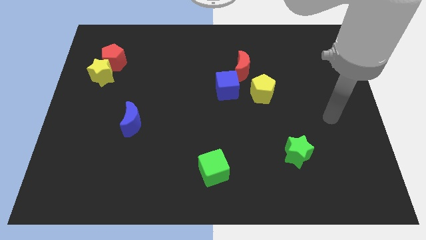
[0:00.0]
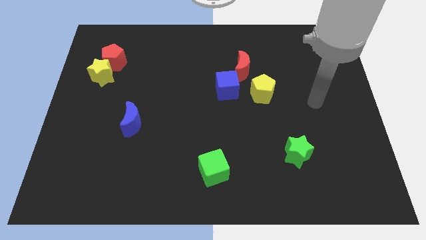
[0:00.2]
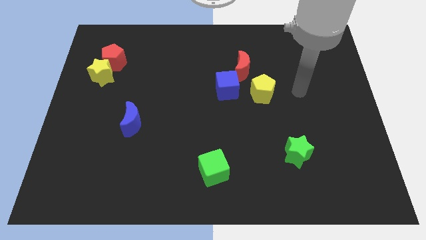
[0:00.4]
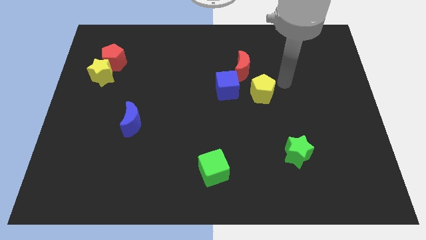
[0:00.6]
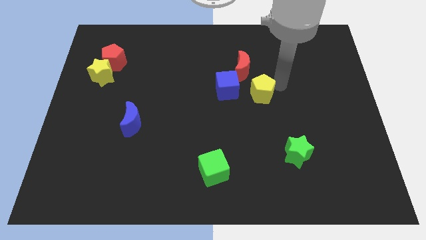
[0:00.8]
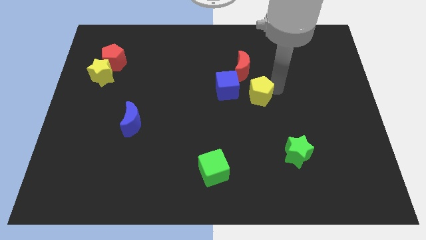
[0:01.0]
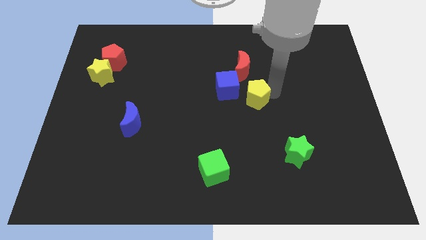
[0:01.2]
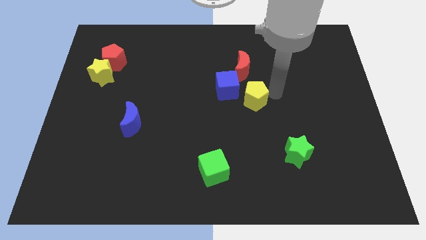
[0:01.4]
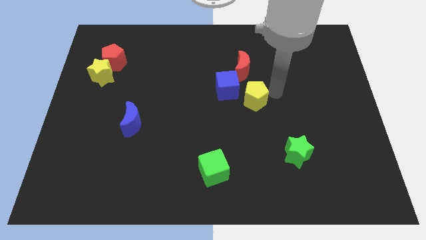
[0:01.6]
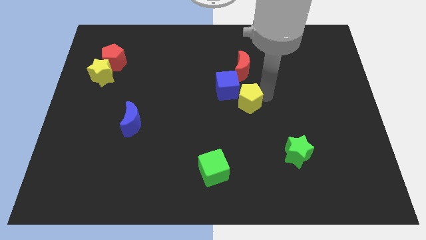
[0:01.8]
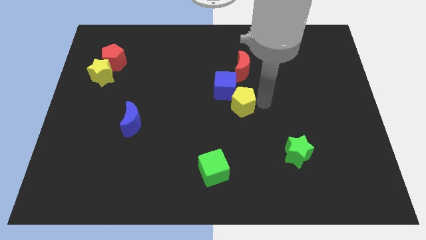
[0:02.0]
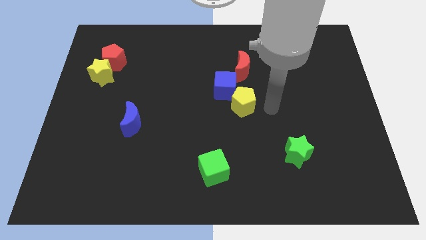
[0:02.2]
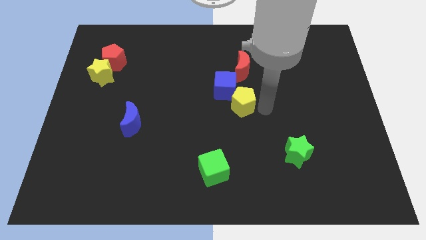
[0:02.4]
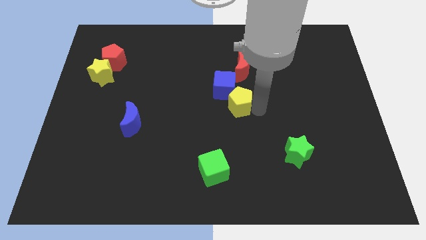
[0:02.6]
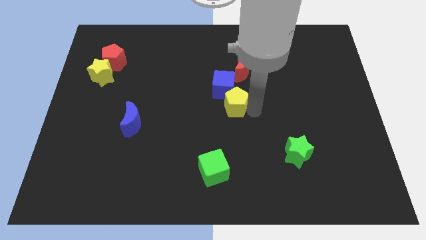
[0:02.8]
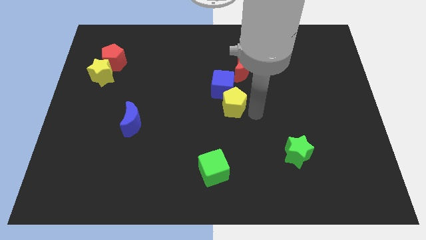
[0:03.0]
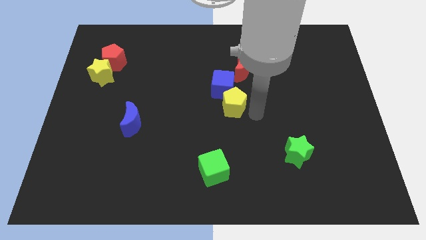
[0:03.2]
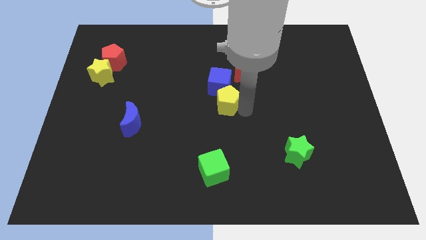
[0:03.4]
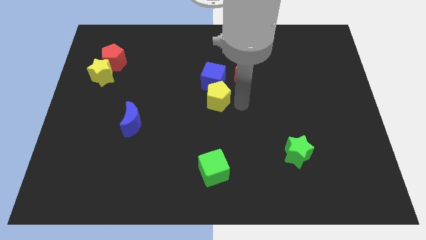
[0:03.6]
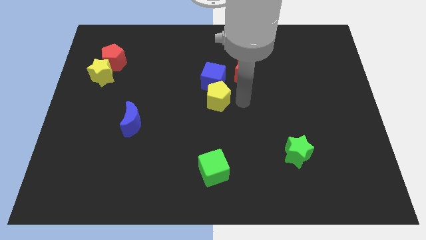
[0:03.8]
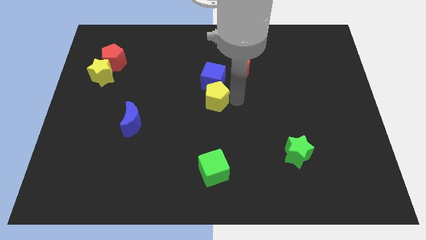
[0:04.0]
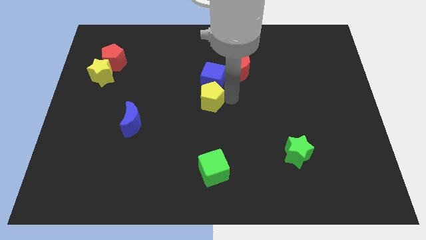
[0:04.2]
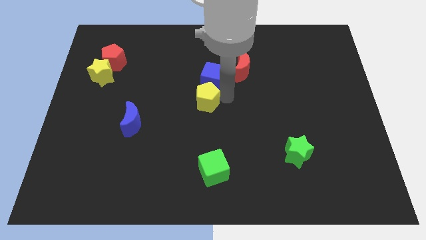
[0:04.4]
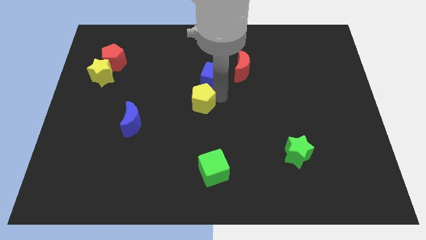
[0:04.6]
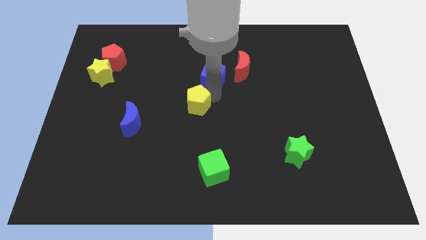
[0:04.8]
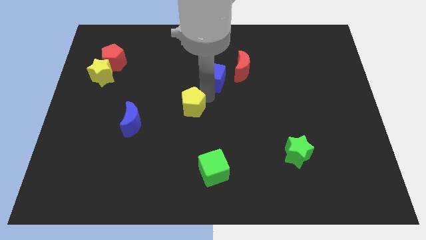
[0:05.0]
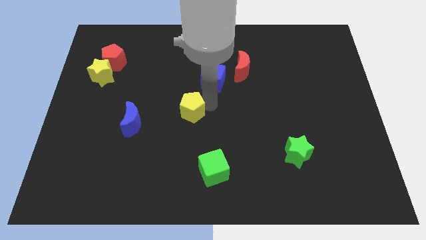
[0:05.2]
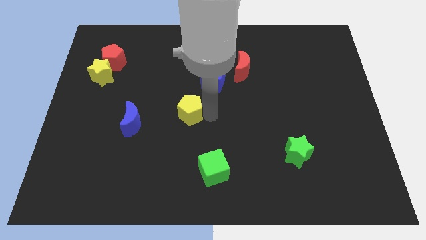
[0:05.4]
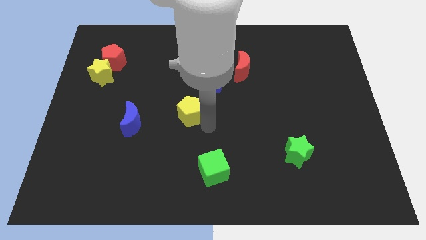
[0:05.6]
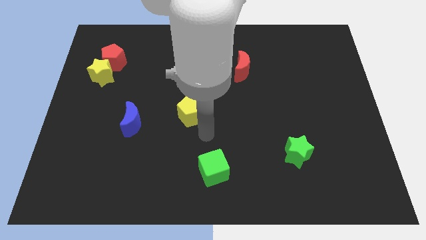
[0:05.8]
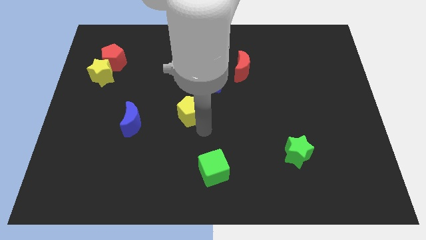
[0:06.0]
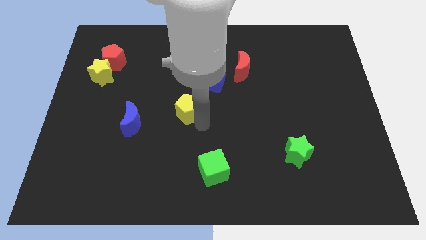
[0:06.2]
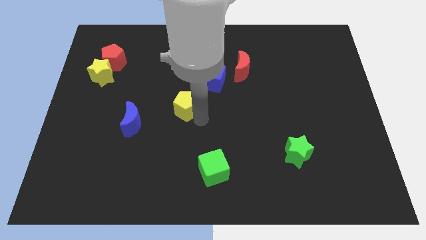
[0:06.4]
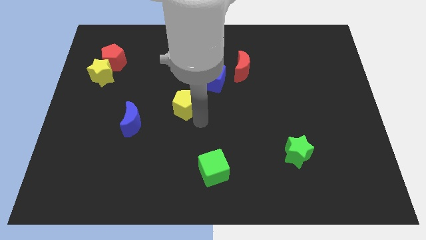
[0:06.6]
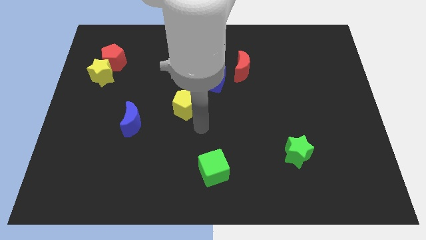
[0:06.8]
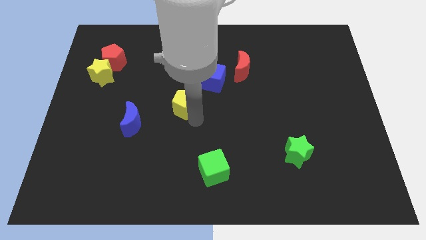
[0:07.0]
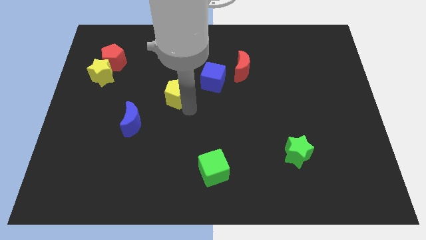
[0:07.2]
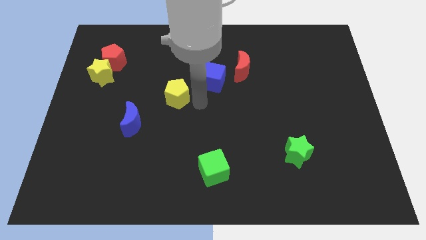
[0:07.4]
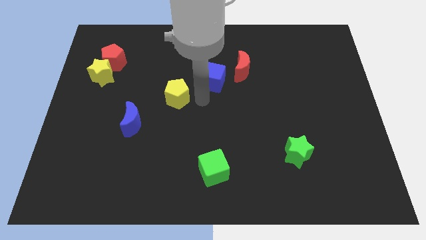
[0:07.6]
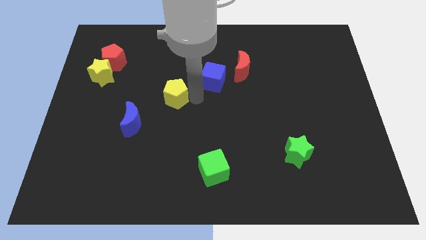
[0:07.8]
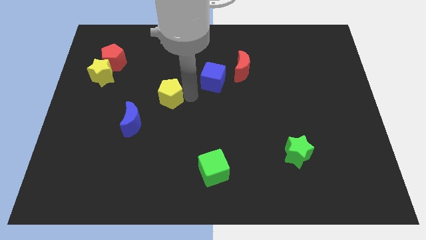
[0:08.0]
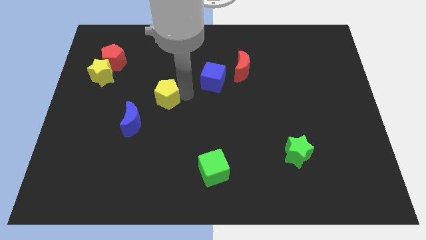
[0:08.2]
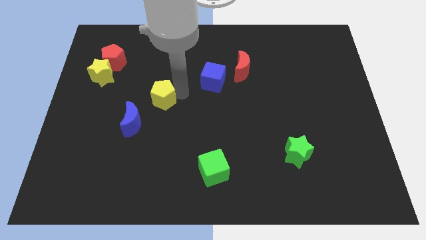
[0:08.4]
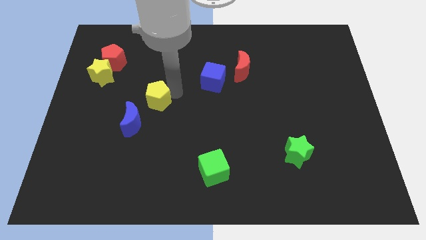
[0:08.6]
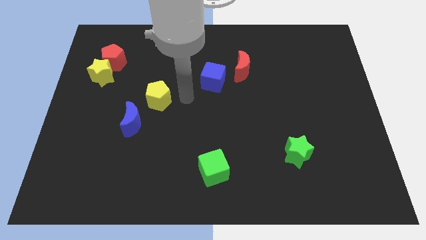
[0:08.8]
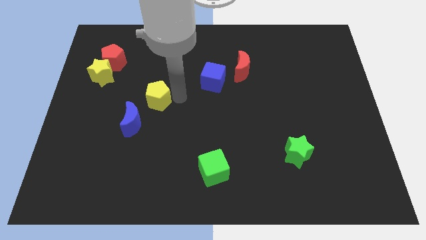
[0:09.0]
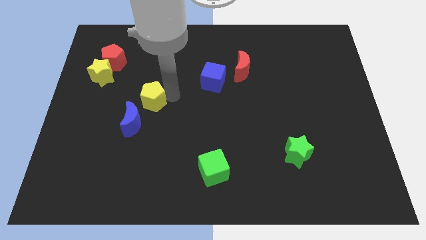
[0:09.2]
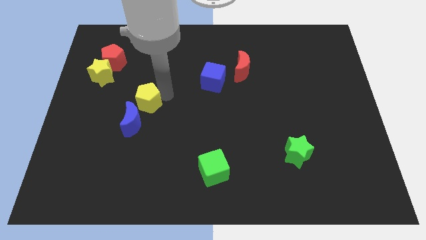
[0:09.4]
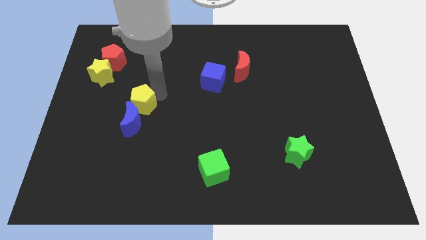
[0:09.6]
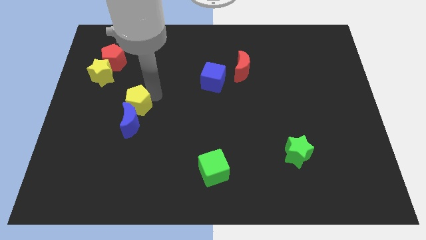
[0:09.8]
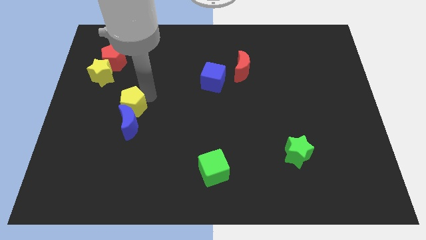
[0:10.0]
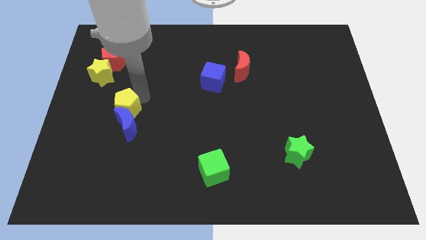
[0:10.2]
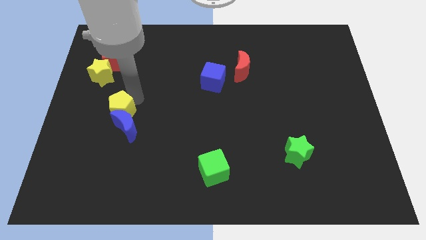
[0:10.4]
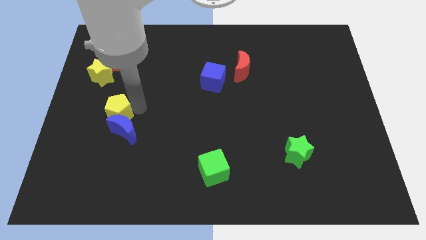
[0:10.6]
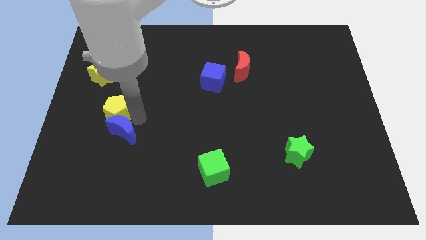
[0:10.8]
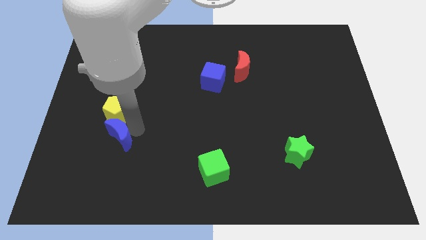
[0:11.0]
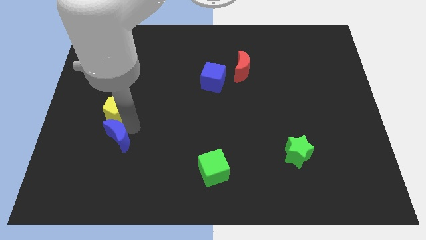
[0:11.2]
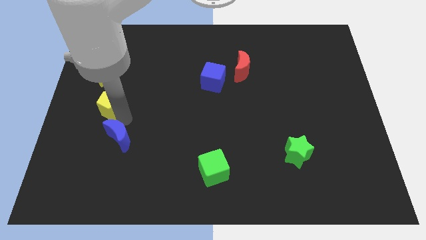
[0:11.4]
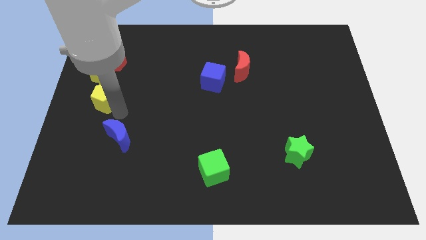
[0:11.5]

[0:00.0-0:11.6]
push the yellow pentagon to the left side of the board
